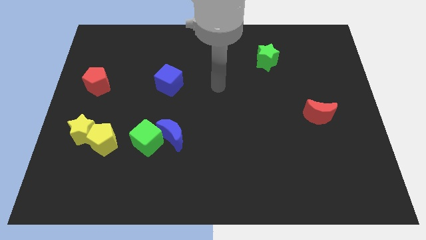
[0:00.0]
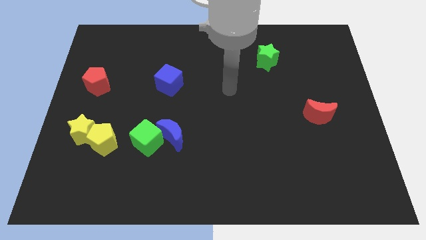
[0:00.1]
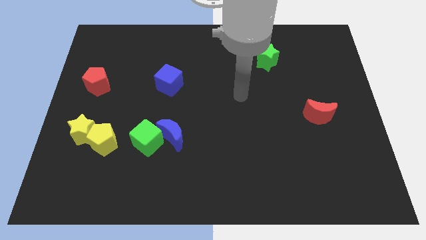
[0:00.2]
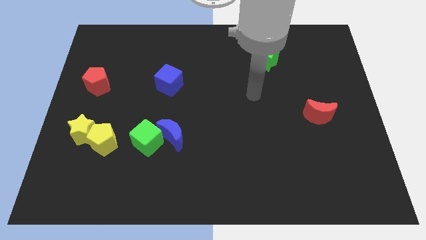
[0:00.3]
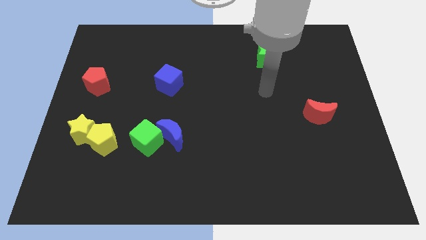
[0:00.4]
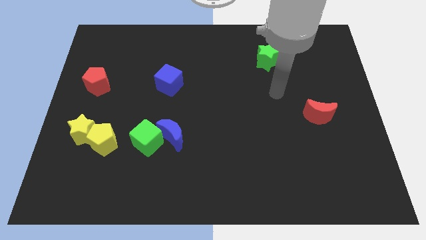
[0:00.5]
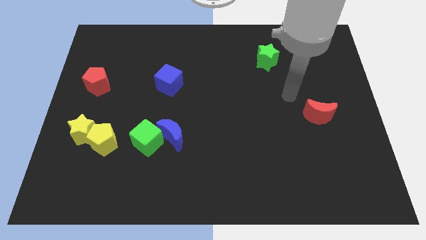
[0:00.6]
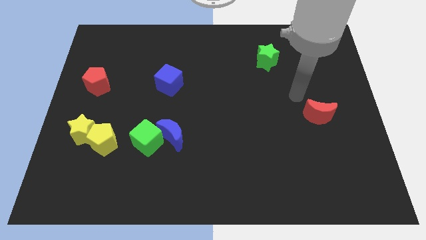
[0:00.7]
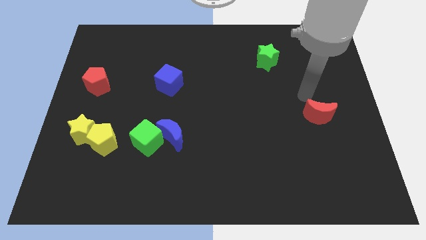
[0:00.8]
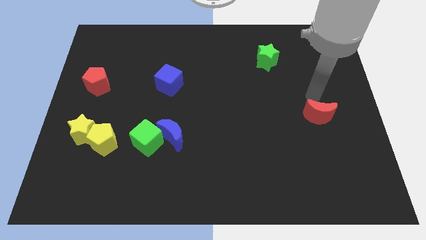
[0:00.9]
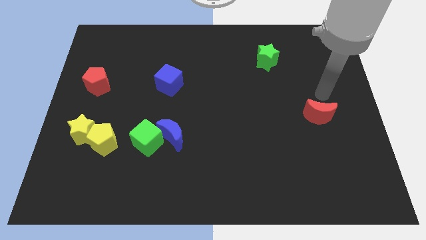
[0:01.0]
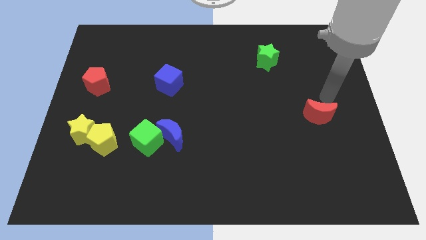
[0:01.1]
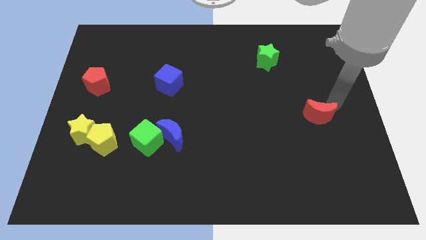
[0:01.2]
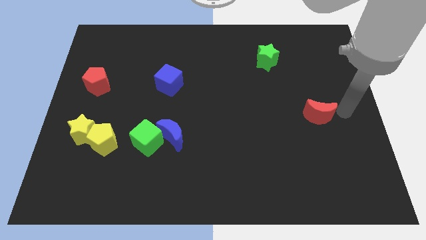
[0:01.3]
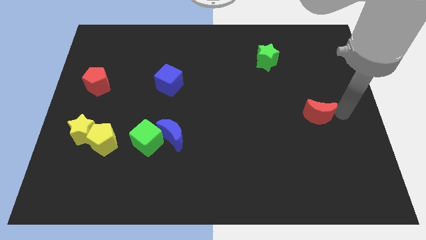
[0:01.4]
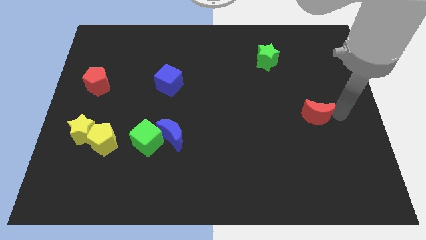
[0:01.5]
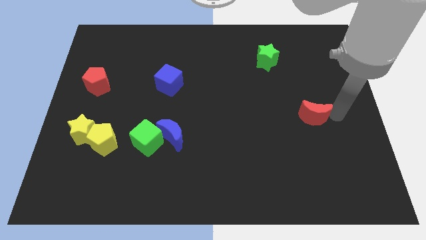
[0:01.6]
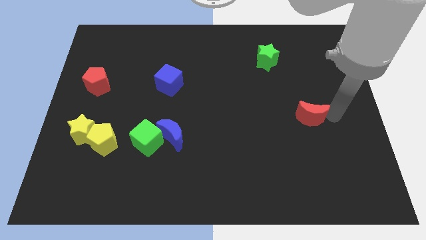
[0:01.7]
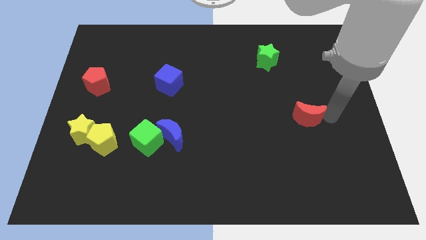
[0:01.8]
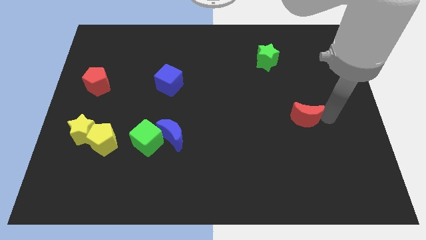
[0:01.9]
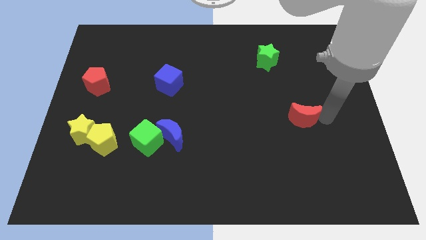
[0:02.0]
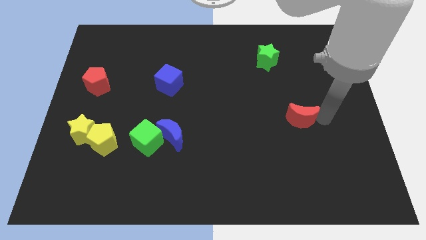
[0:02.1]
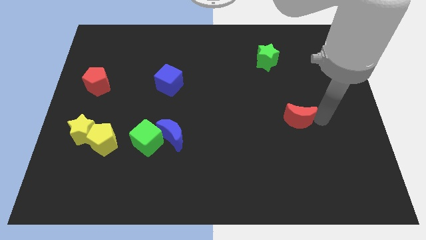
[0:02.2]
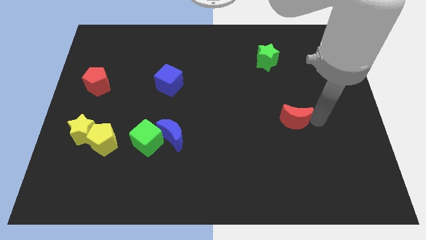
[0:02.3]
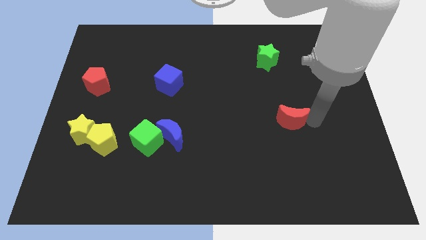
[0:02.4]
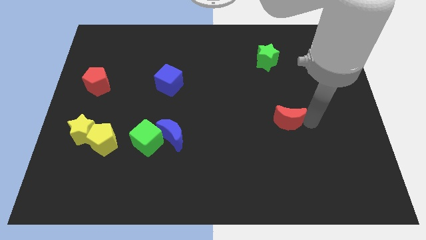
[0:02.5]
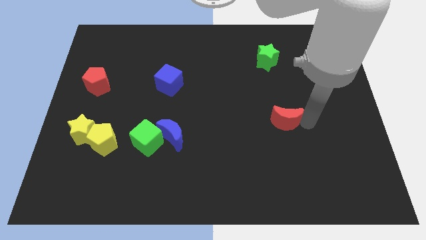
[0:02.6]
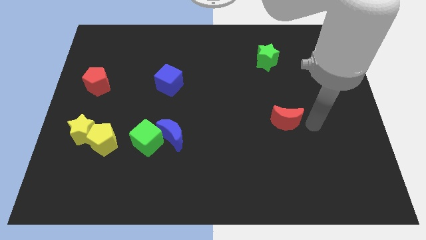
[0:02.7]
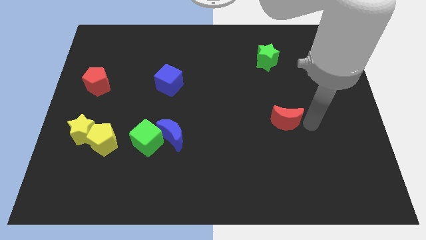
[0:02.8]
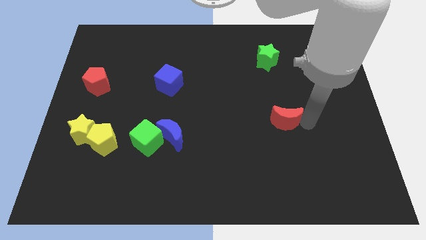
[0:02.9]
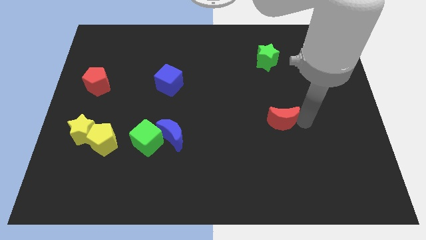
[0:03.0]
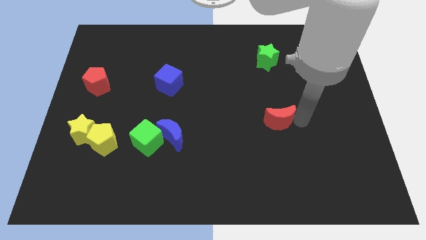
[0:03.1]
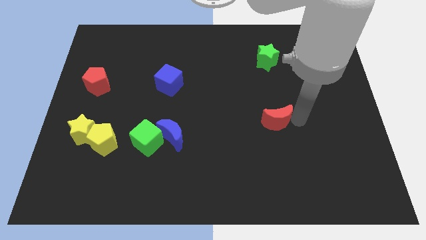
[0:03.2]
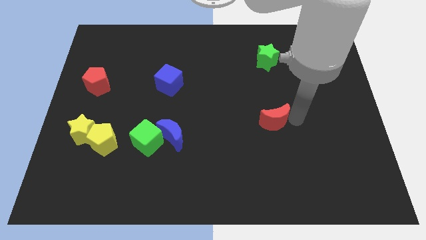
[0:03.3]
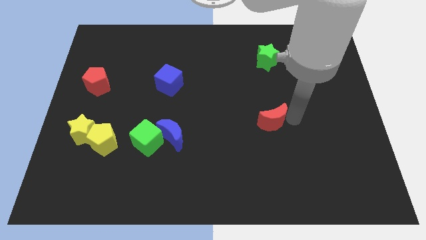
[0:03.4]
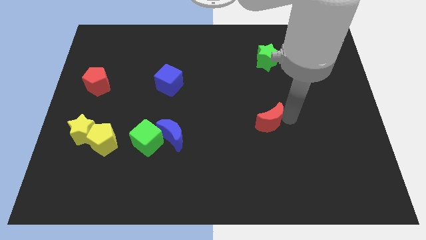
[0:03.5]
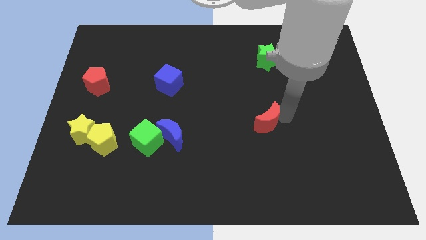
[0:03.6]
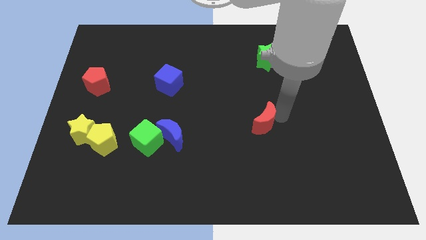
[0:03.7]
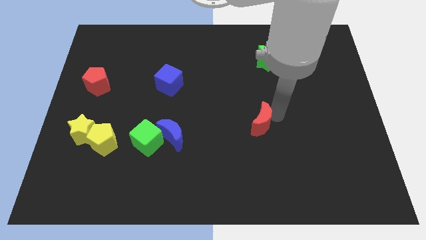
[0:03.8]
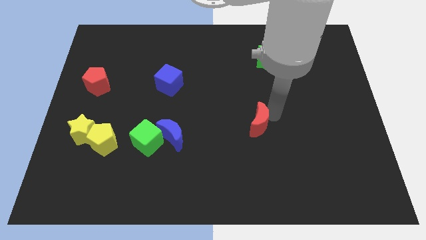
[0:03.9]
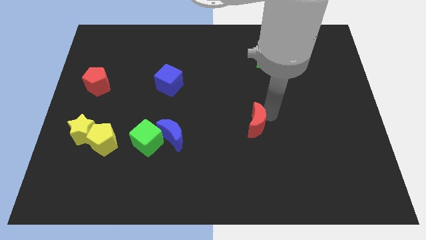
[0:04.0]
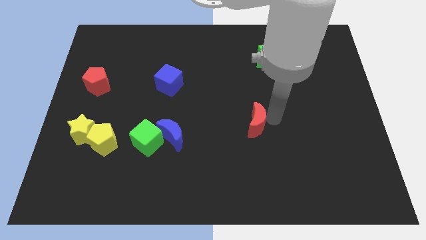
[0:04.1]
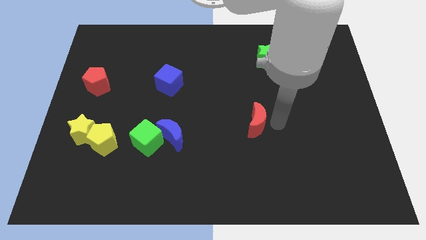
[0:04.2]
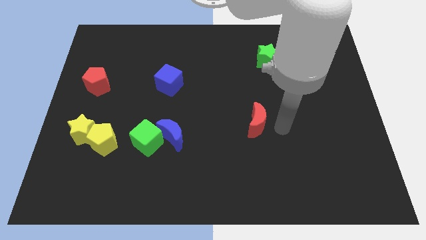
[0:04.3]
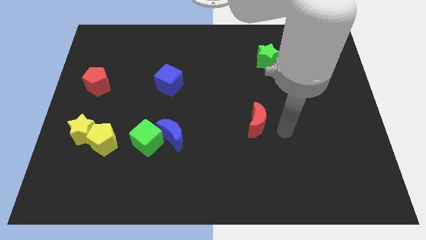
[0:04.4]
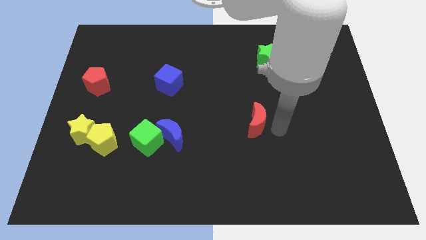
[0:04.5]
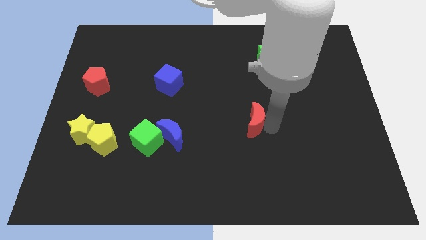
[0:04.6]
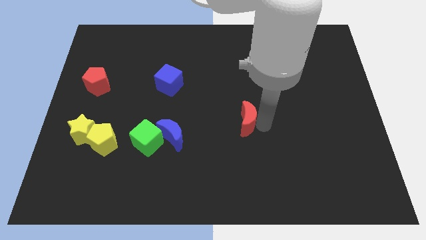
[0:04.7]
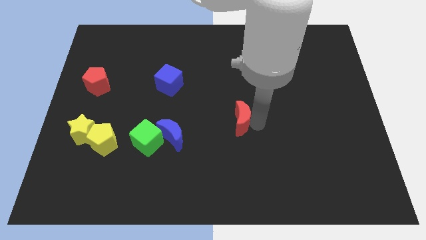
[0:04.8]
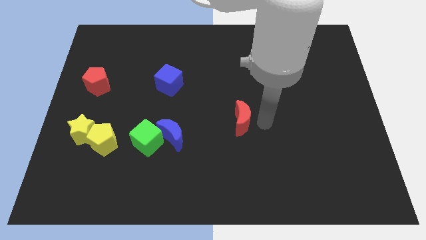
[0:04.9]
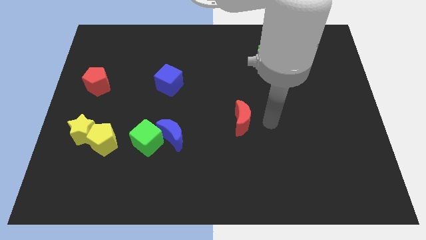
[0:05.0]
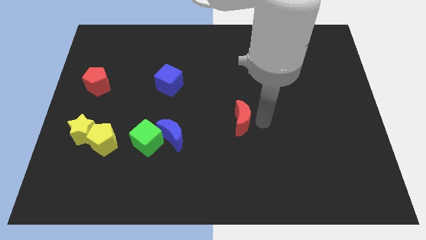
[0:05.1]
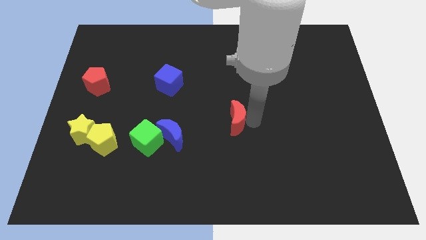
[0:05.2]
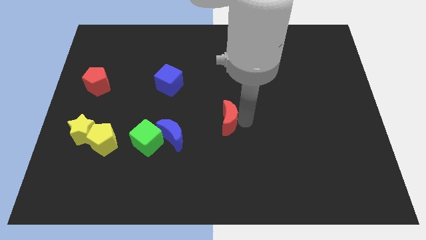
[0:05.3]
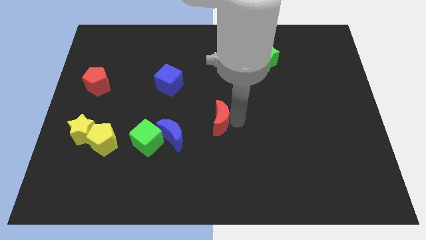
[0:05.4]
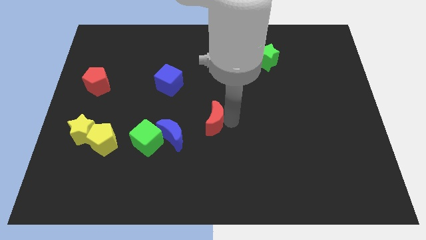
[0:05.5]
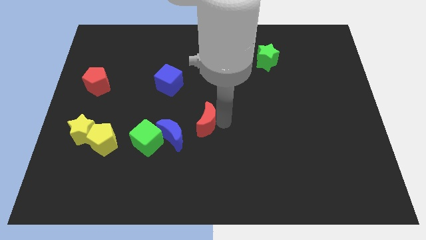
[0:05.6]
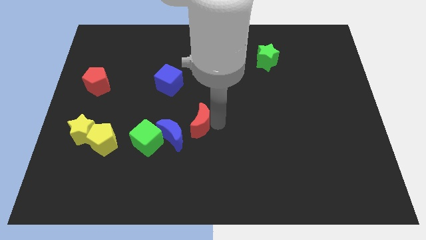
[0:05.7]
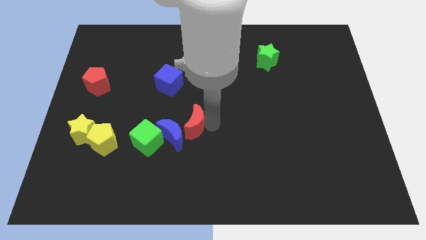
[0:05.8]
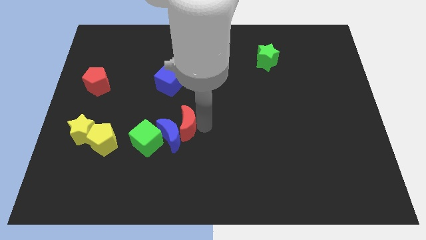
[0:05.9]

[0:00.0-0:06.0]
put the red moon diagonally up and to the right of the green cube

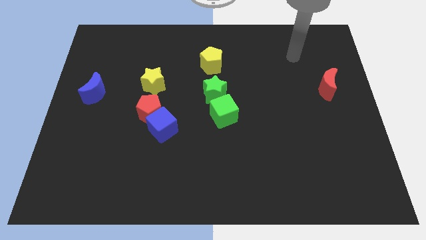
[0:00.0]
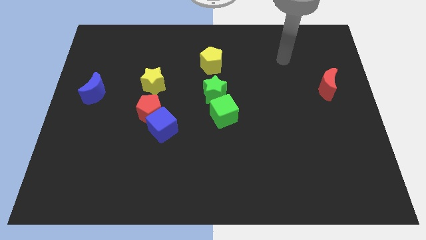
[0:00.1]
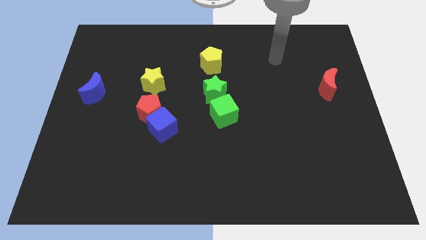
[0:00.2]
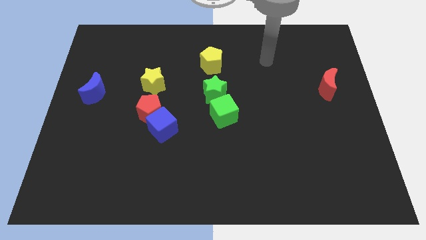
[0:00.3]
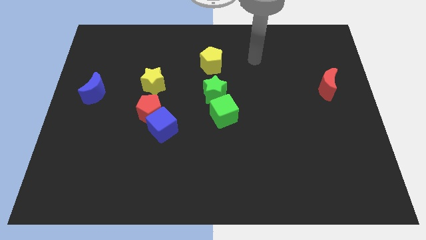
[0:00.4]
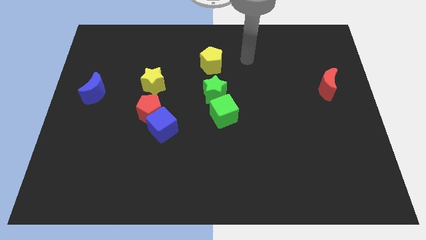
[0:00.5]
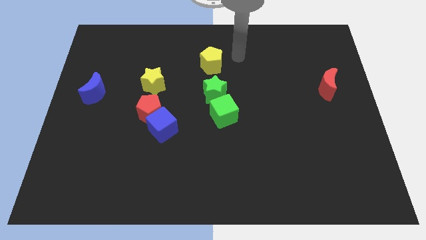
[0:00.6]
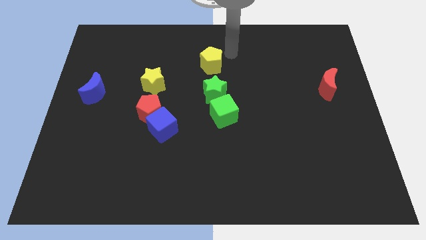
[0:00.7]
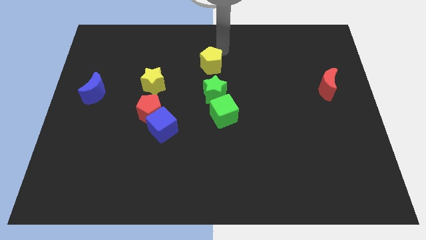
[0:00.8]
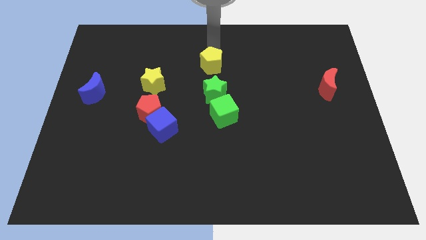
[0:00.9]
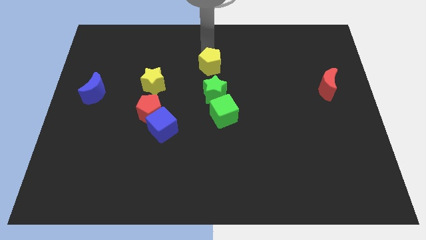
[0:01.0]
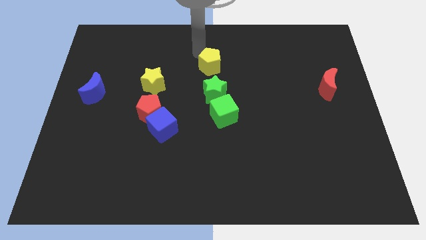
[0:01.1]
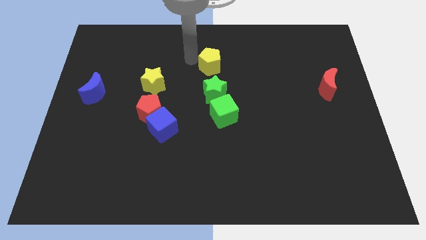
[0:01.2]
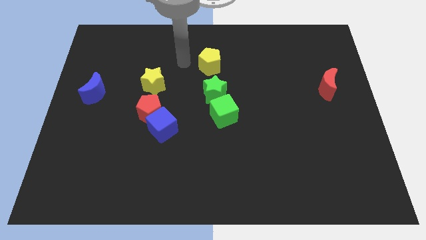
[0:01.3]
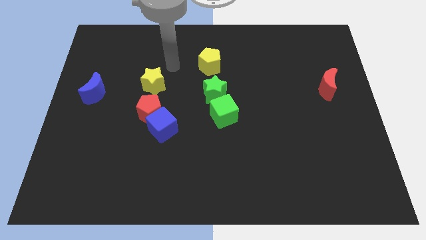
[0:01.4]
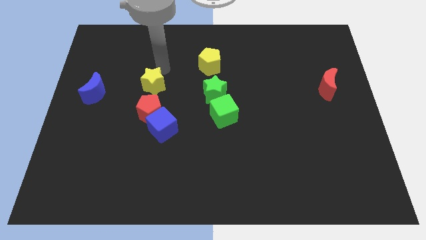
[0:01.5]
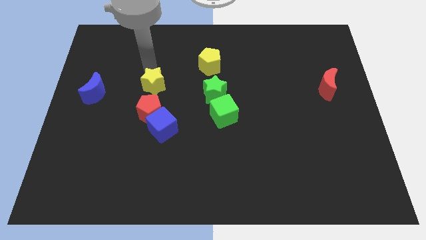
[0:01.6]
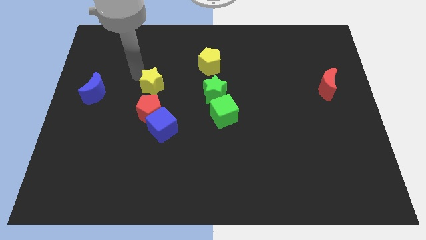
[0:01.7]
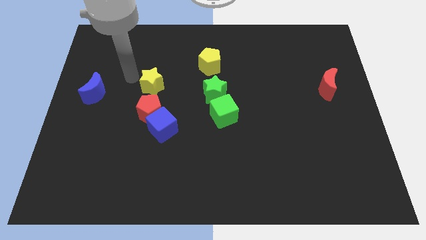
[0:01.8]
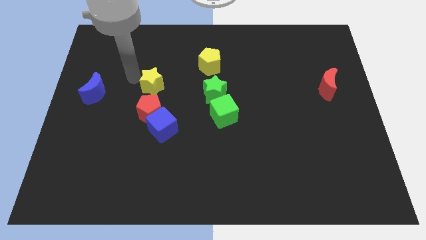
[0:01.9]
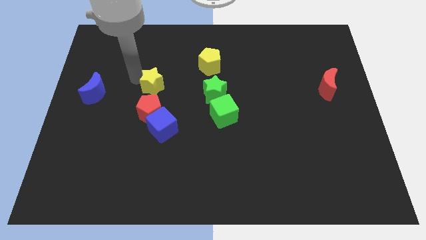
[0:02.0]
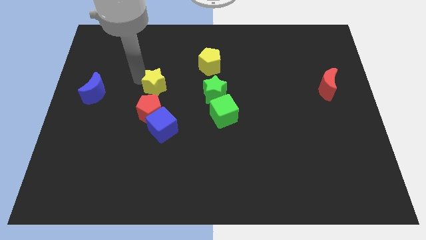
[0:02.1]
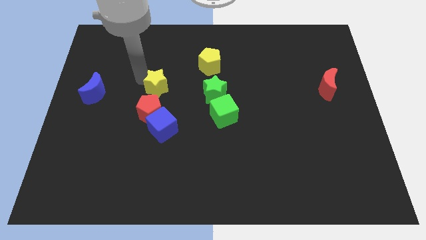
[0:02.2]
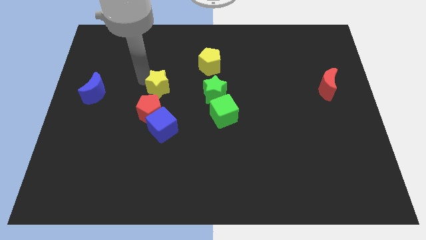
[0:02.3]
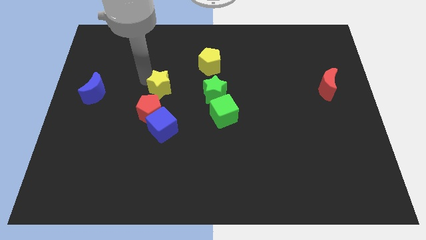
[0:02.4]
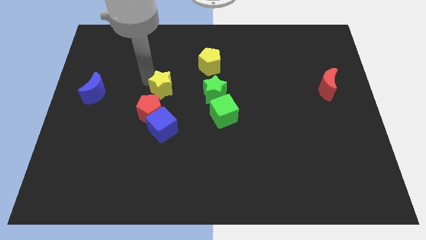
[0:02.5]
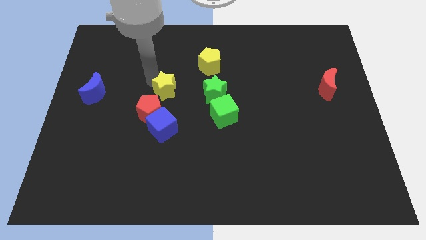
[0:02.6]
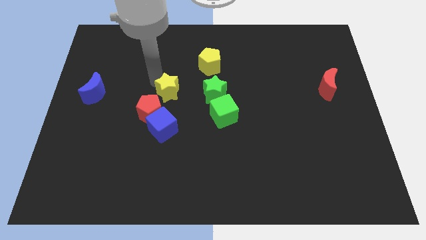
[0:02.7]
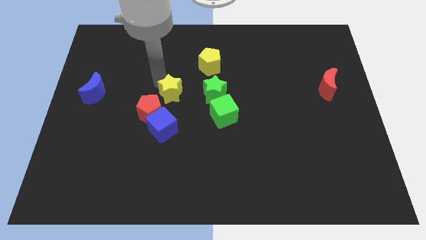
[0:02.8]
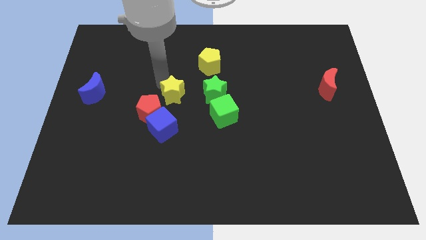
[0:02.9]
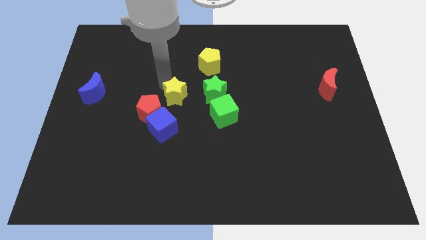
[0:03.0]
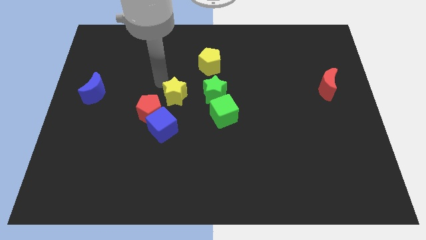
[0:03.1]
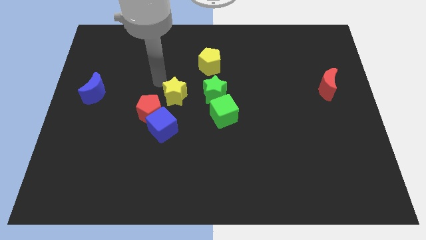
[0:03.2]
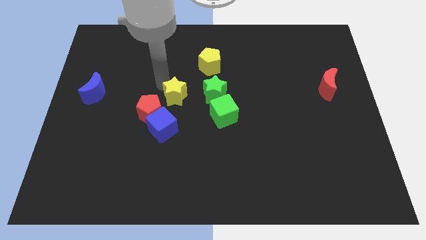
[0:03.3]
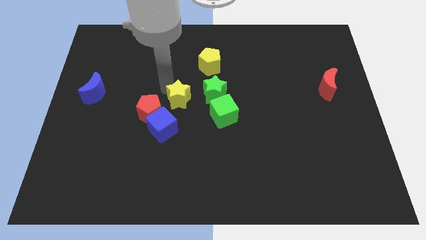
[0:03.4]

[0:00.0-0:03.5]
slide the yellow star to the bottom left of the green star
